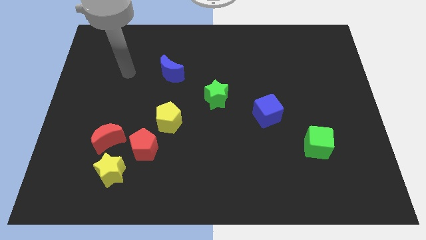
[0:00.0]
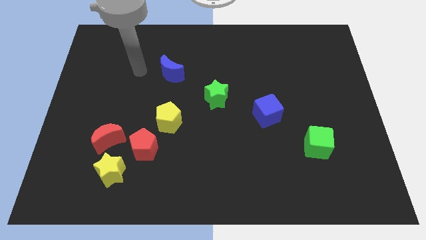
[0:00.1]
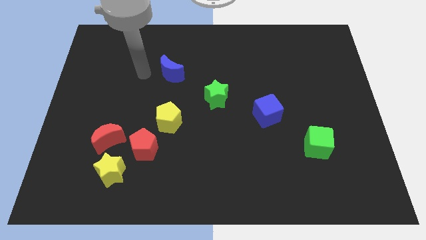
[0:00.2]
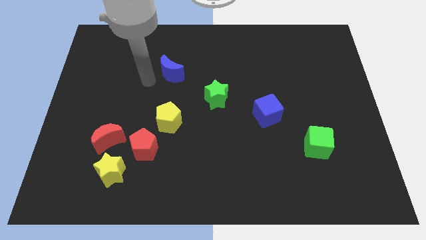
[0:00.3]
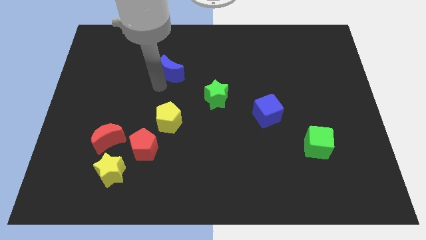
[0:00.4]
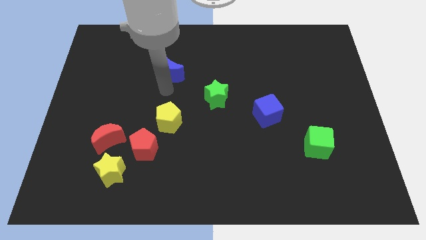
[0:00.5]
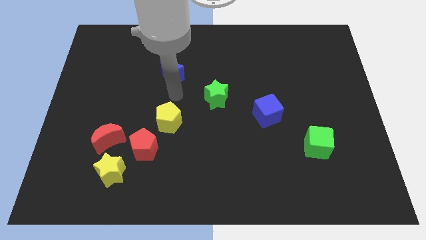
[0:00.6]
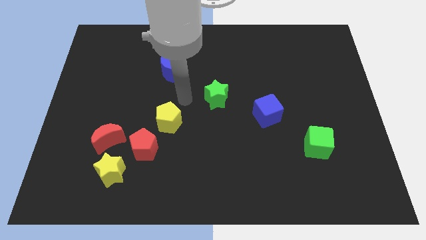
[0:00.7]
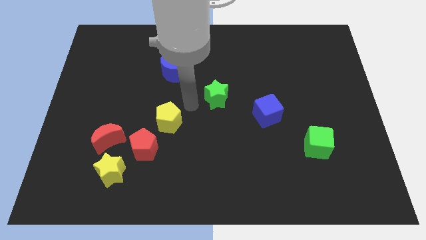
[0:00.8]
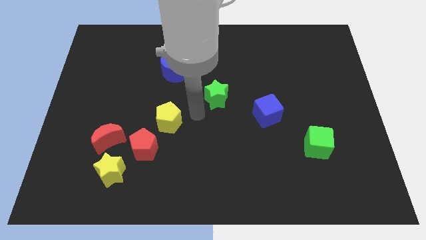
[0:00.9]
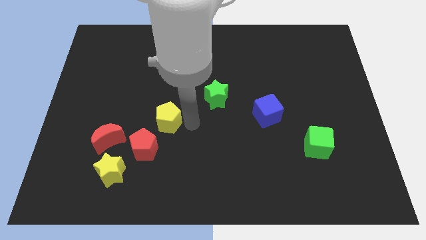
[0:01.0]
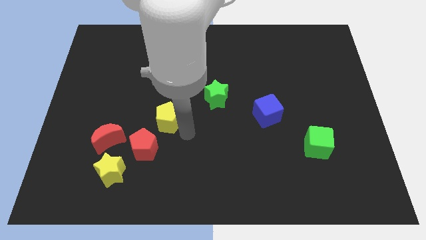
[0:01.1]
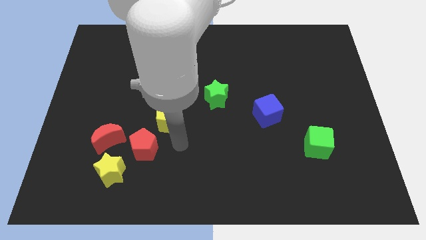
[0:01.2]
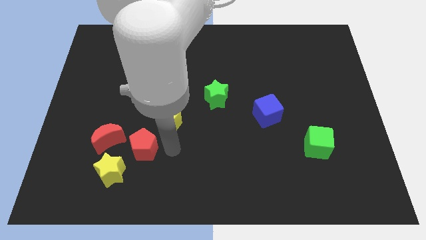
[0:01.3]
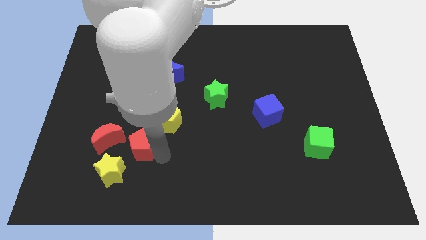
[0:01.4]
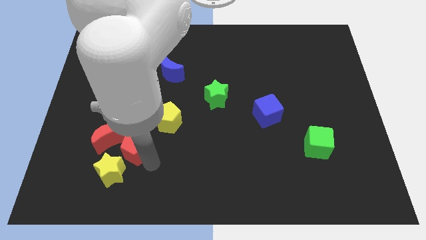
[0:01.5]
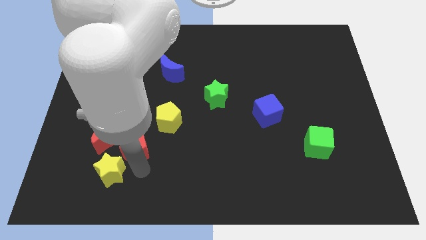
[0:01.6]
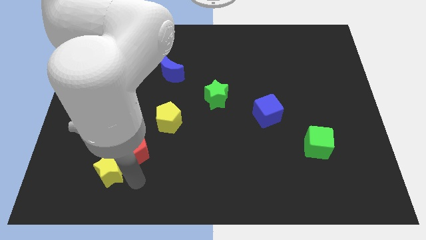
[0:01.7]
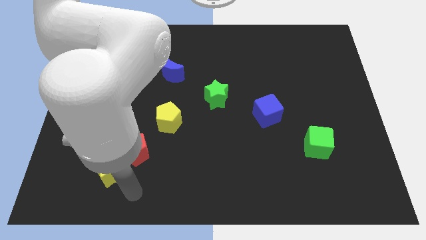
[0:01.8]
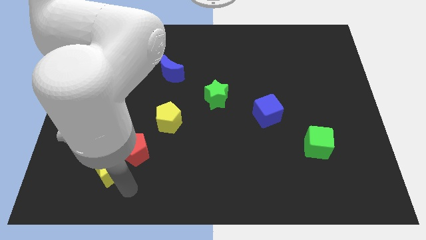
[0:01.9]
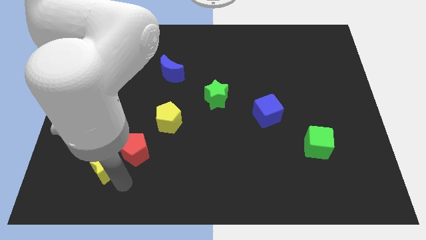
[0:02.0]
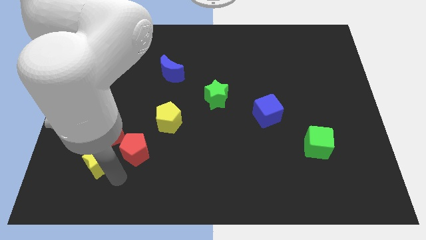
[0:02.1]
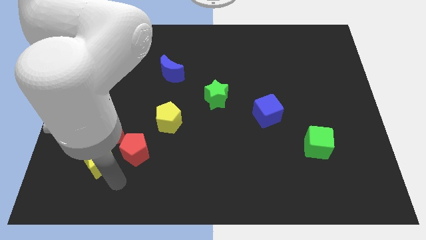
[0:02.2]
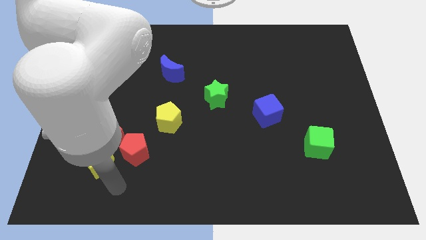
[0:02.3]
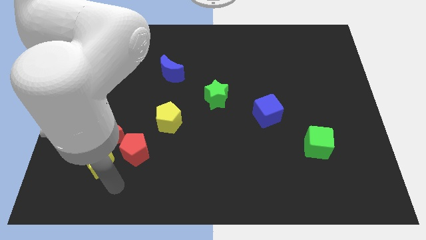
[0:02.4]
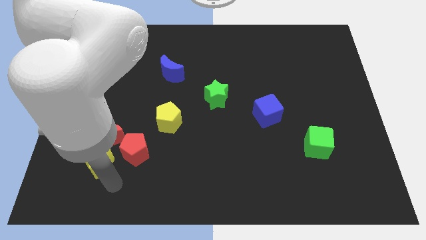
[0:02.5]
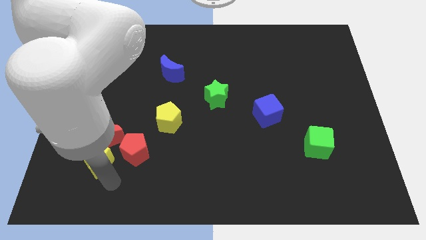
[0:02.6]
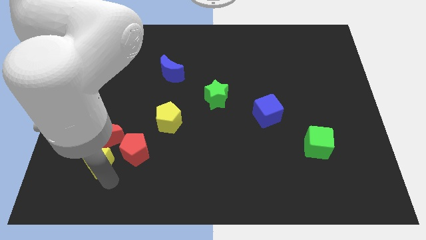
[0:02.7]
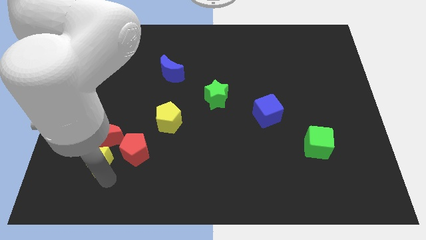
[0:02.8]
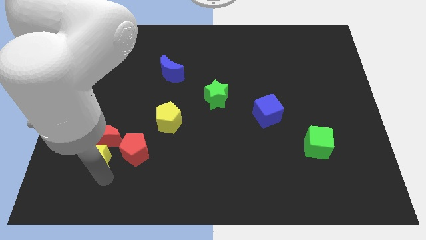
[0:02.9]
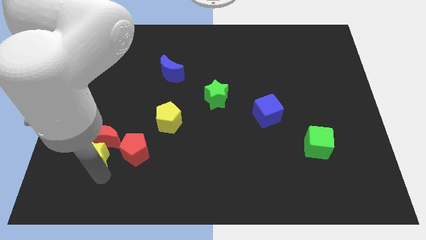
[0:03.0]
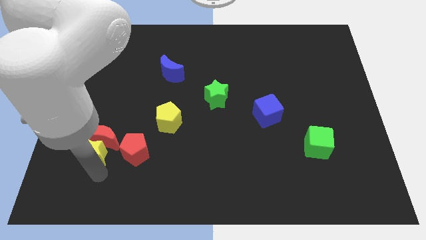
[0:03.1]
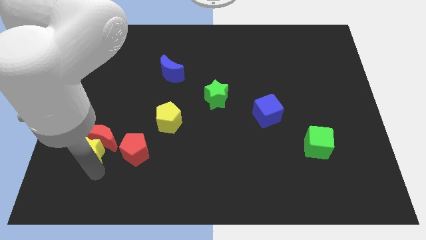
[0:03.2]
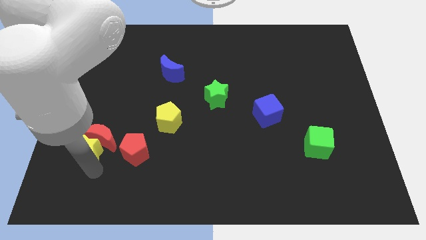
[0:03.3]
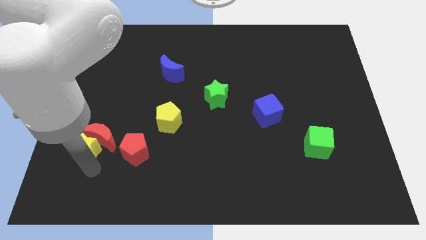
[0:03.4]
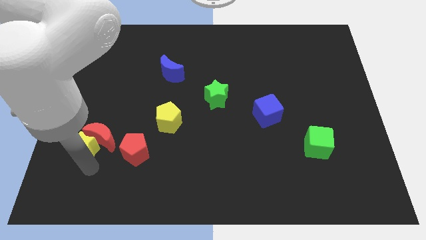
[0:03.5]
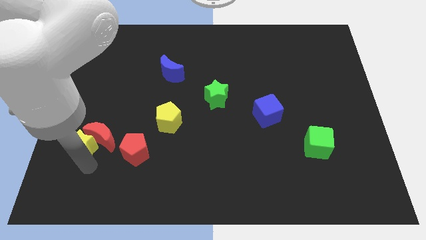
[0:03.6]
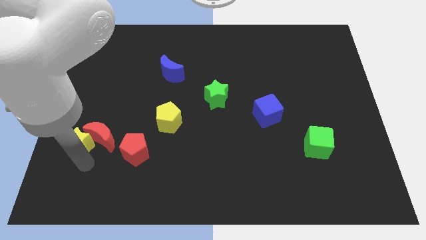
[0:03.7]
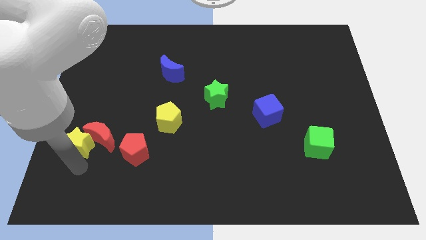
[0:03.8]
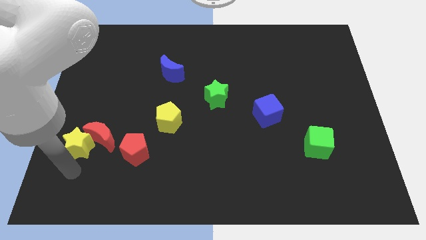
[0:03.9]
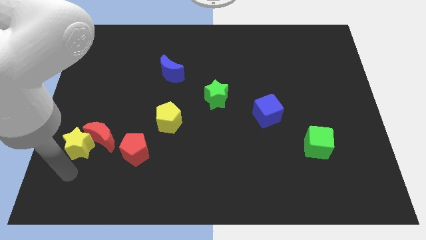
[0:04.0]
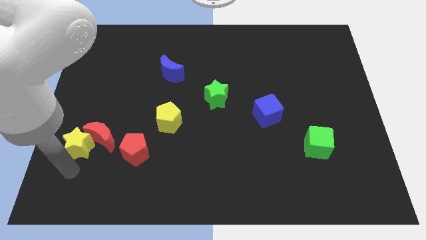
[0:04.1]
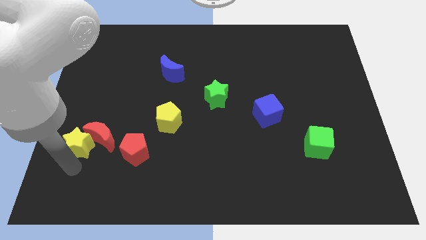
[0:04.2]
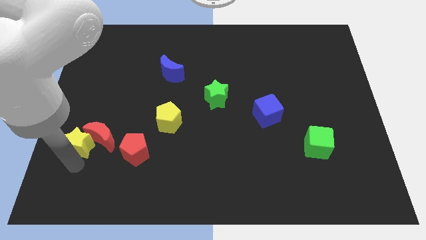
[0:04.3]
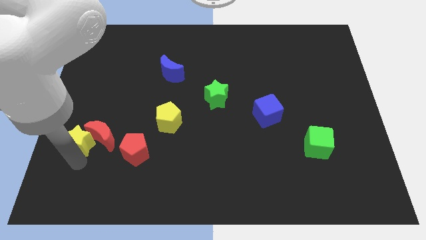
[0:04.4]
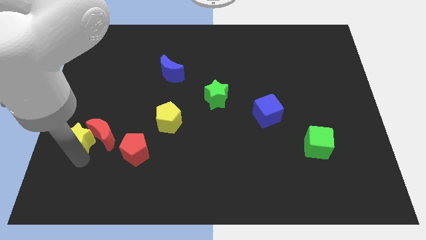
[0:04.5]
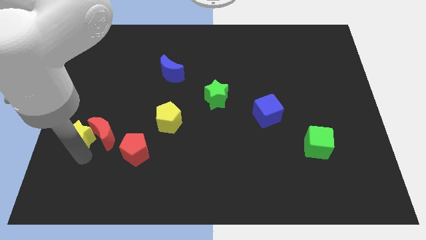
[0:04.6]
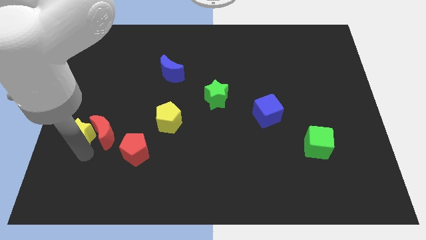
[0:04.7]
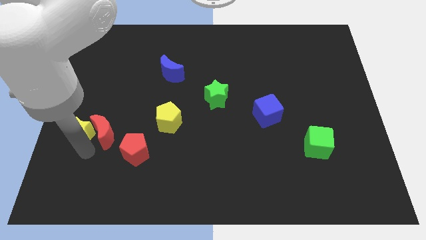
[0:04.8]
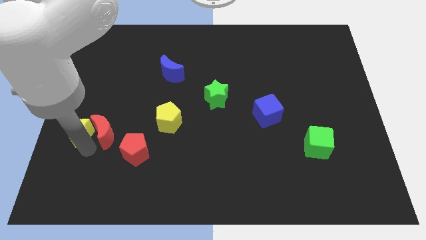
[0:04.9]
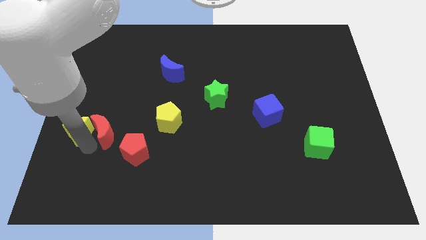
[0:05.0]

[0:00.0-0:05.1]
push the yellow star up somewhat

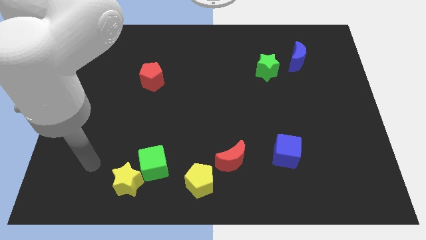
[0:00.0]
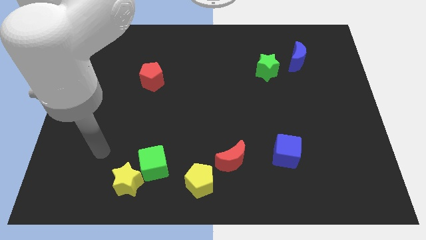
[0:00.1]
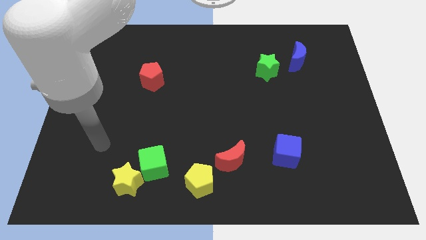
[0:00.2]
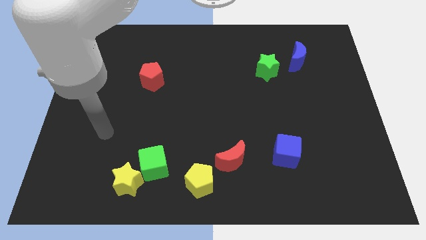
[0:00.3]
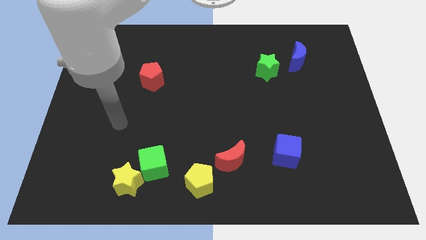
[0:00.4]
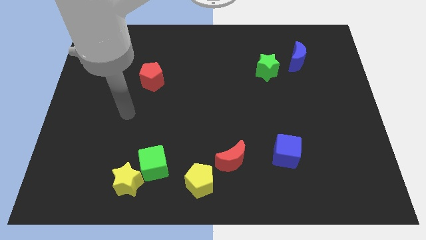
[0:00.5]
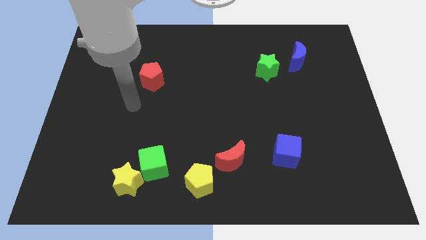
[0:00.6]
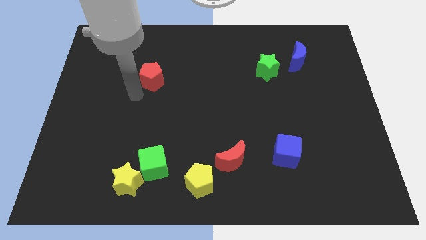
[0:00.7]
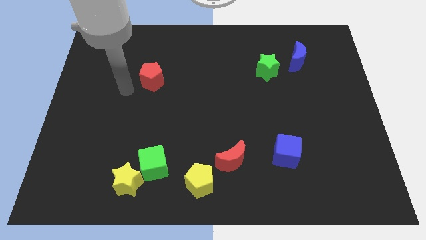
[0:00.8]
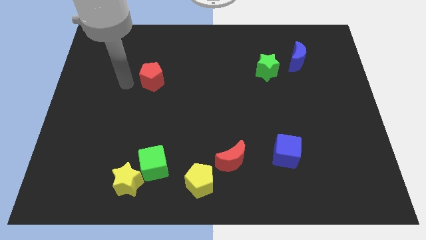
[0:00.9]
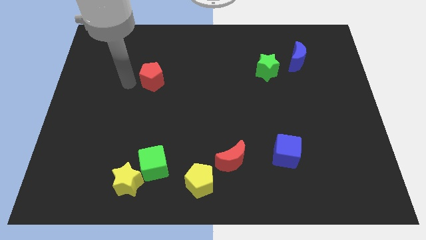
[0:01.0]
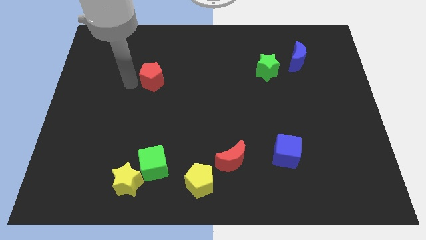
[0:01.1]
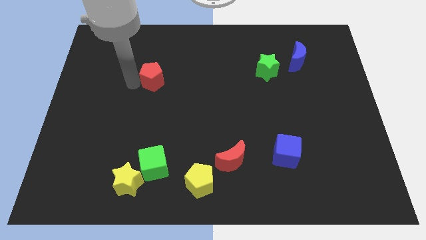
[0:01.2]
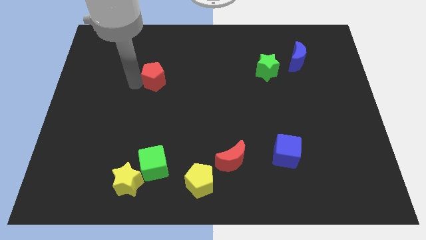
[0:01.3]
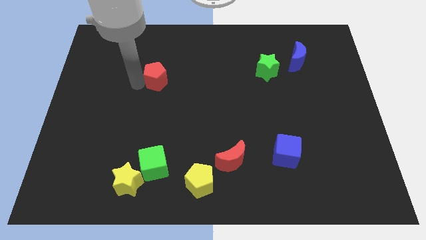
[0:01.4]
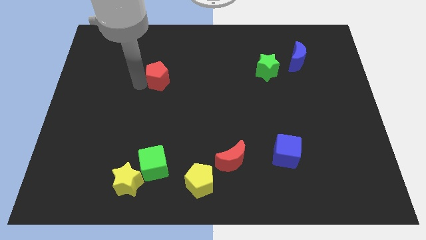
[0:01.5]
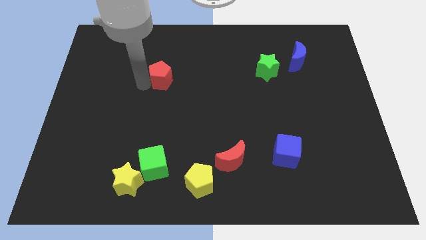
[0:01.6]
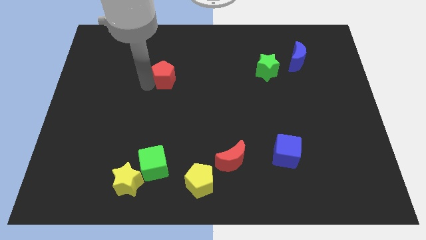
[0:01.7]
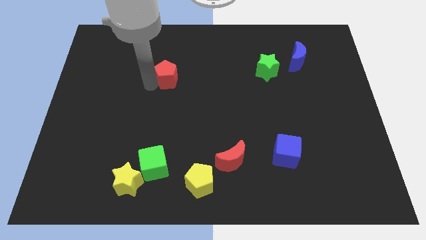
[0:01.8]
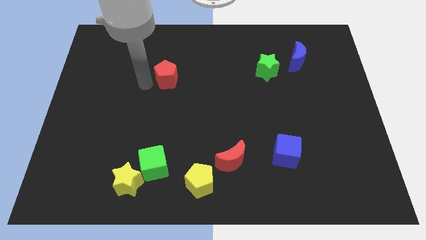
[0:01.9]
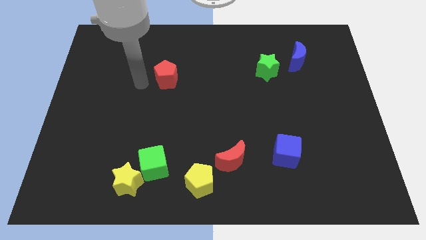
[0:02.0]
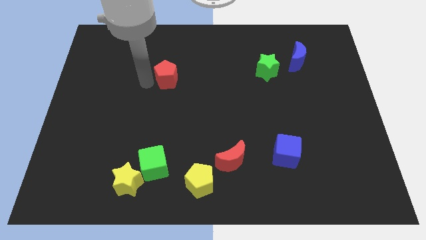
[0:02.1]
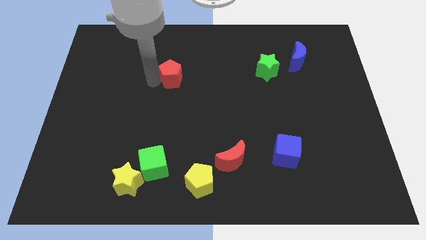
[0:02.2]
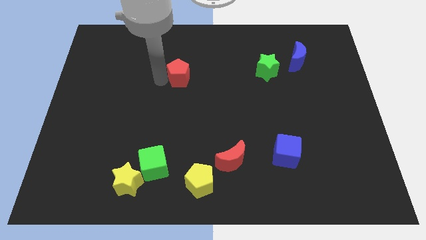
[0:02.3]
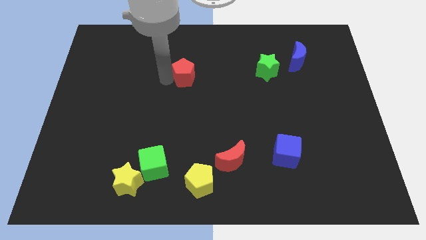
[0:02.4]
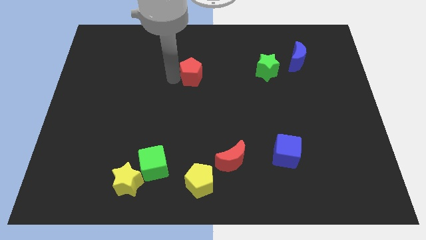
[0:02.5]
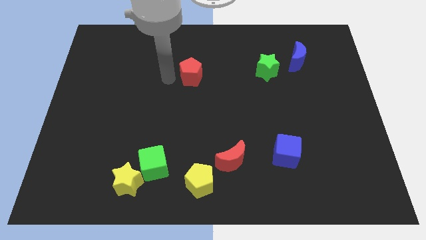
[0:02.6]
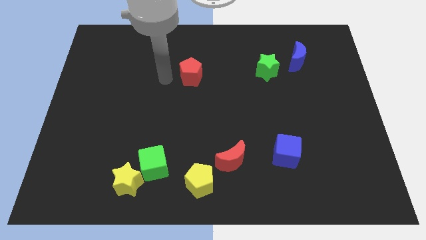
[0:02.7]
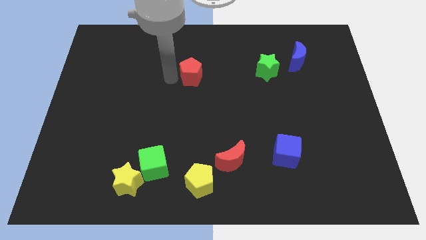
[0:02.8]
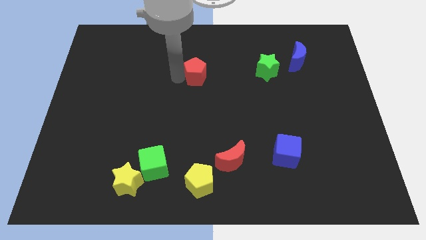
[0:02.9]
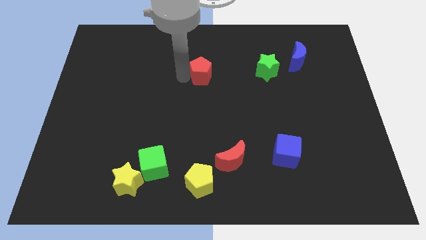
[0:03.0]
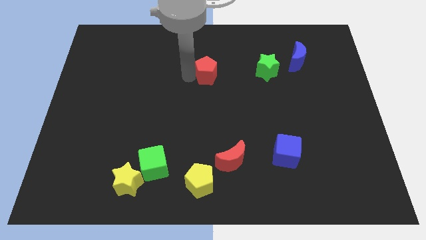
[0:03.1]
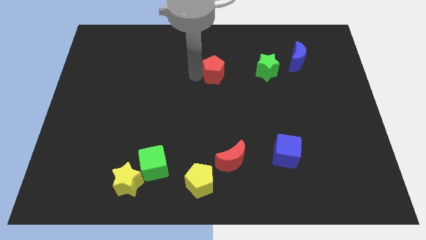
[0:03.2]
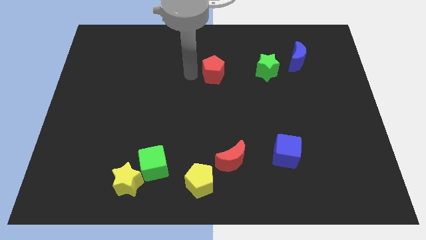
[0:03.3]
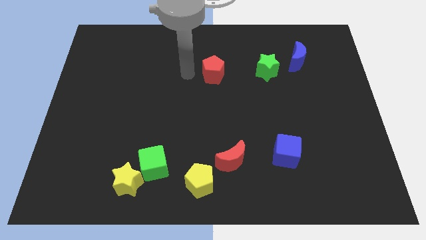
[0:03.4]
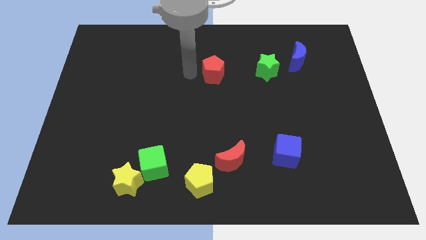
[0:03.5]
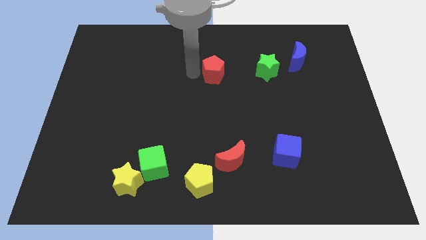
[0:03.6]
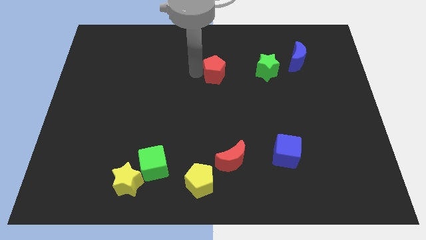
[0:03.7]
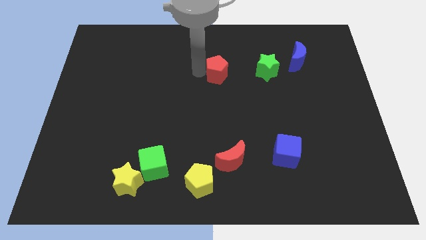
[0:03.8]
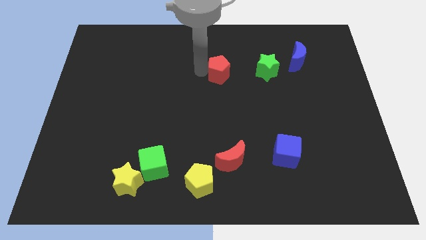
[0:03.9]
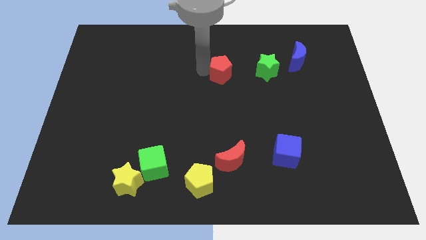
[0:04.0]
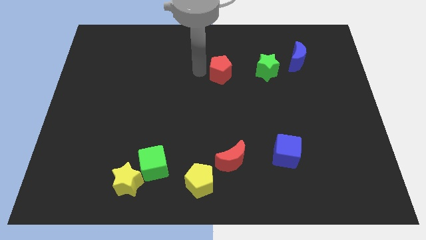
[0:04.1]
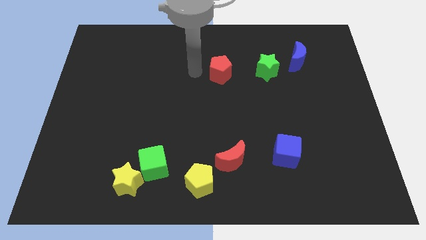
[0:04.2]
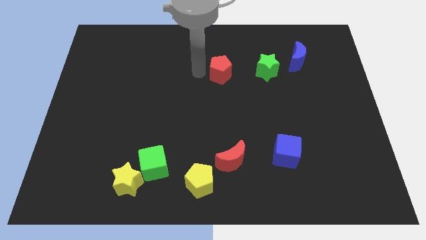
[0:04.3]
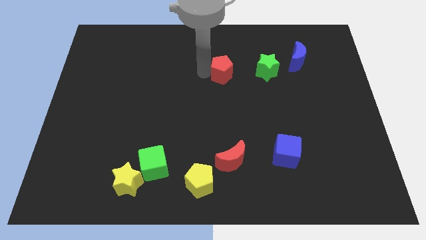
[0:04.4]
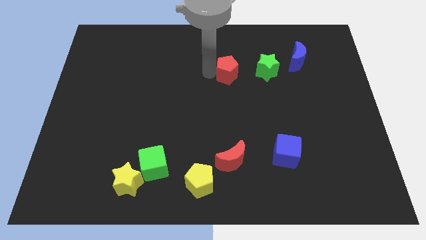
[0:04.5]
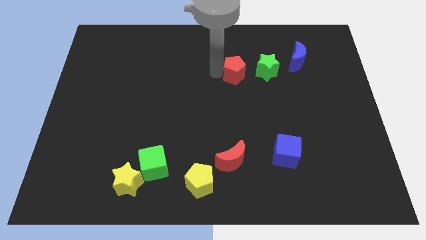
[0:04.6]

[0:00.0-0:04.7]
move the red pentagon to the right
